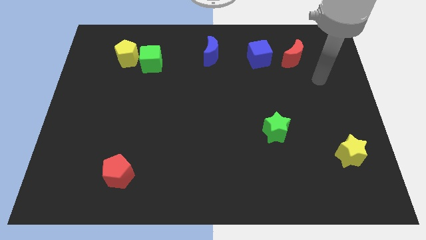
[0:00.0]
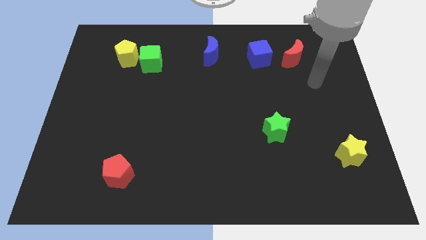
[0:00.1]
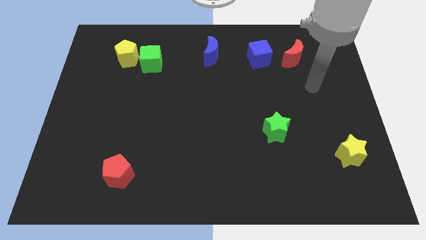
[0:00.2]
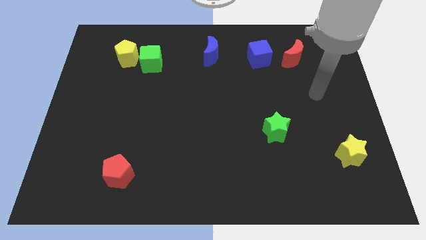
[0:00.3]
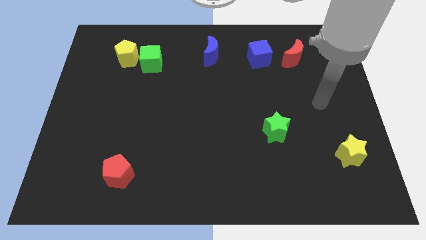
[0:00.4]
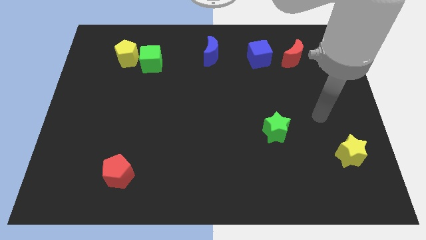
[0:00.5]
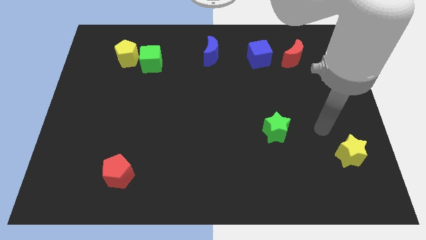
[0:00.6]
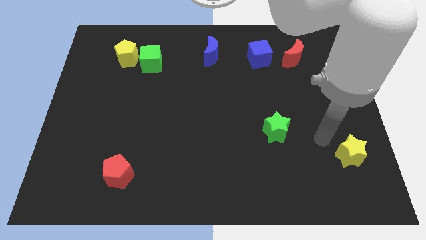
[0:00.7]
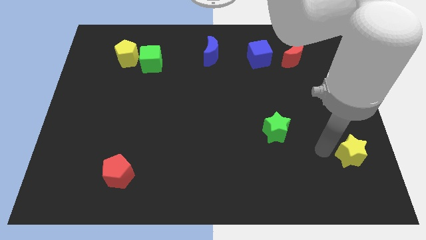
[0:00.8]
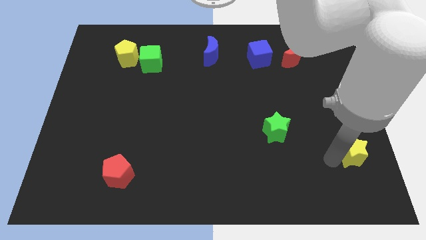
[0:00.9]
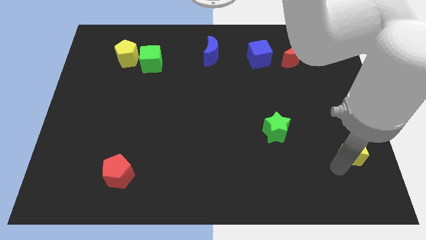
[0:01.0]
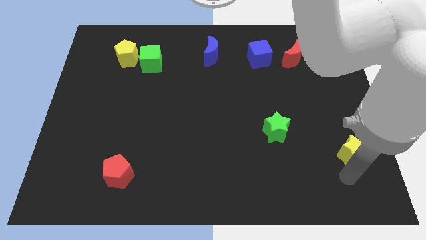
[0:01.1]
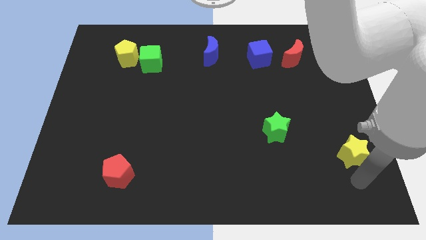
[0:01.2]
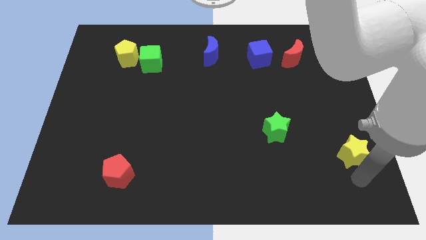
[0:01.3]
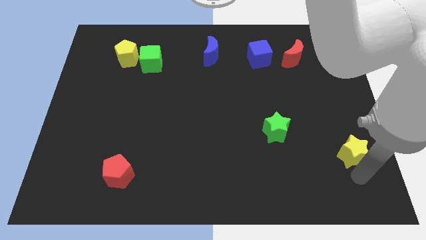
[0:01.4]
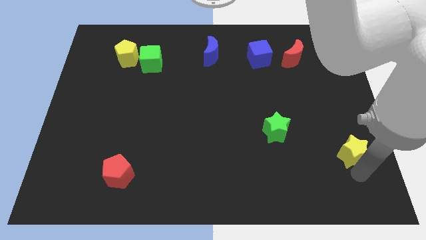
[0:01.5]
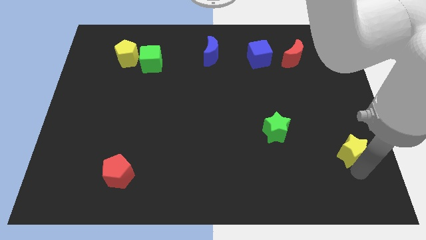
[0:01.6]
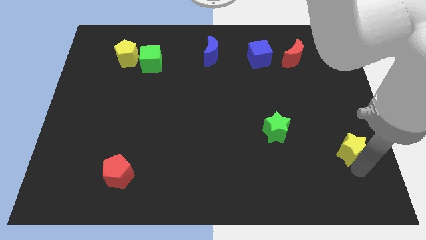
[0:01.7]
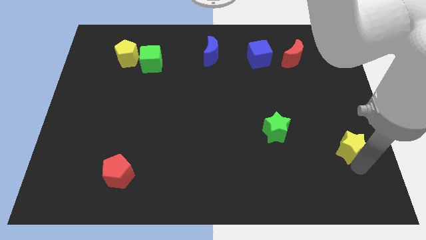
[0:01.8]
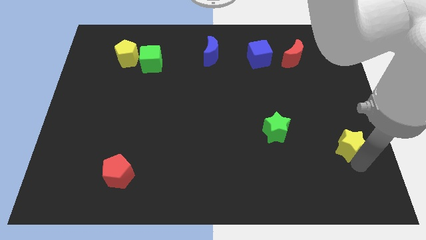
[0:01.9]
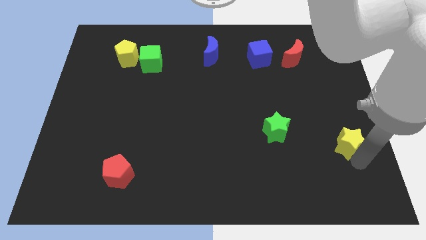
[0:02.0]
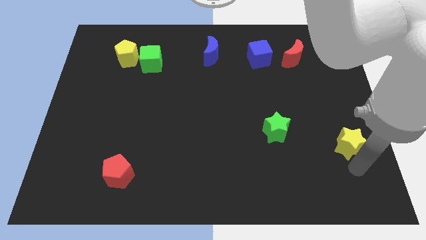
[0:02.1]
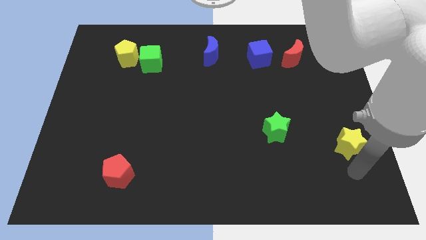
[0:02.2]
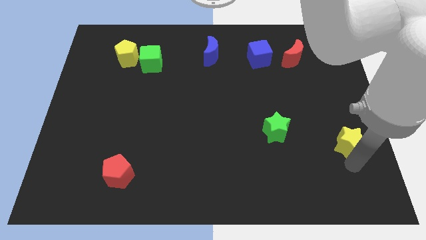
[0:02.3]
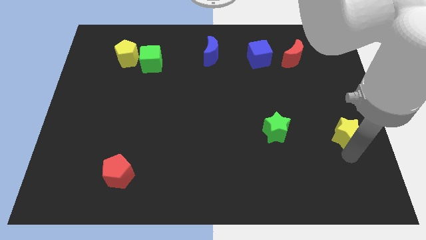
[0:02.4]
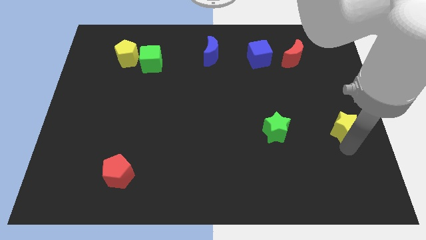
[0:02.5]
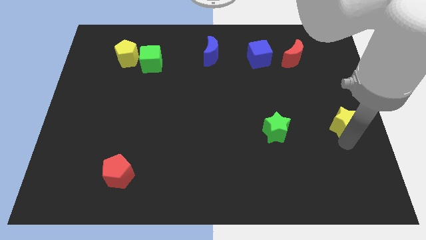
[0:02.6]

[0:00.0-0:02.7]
move the yellow star up slightly

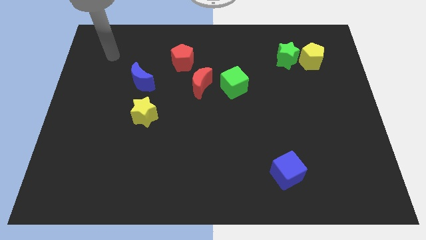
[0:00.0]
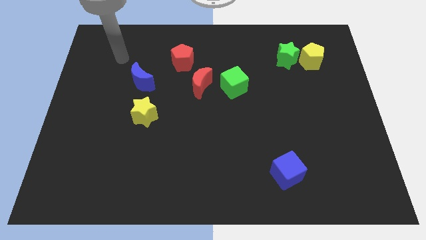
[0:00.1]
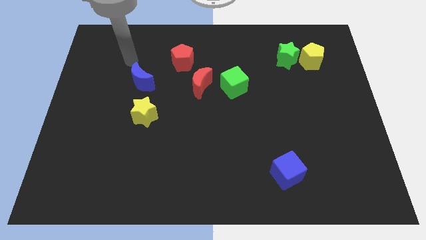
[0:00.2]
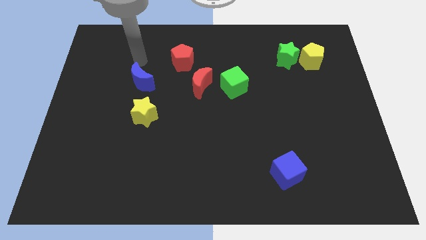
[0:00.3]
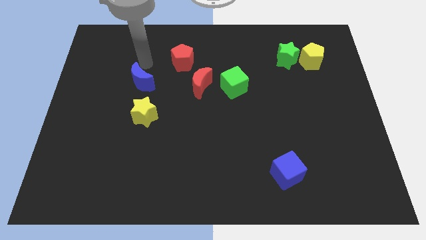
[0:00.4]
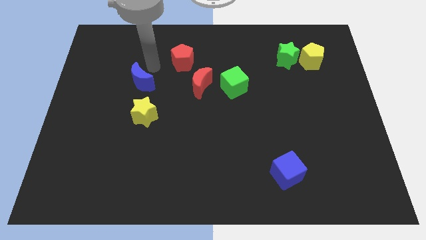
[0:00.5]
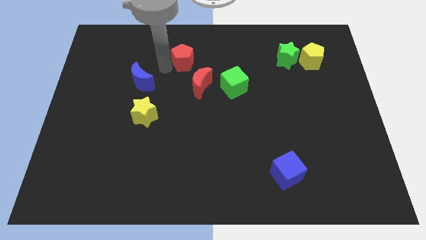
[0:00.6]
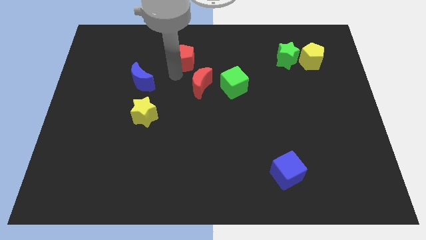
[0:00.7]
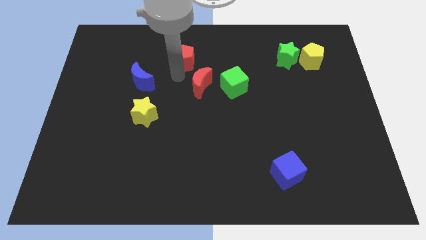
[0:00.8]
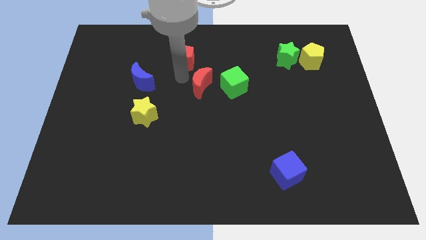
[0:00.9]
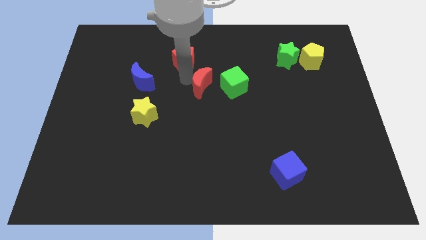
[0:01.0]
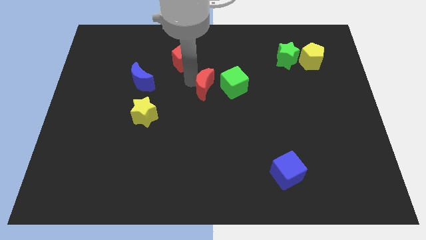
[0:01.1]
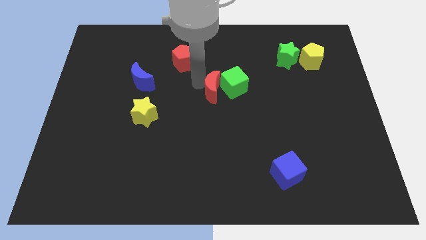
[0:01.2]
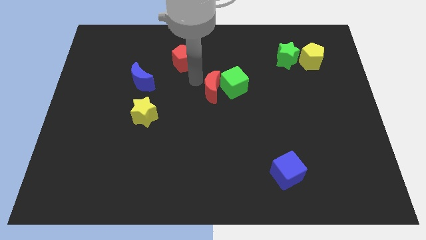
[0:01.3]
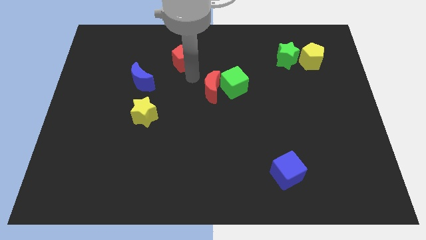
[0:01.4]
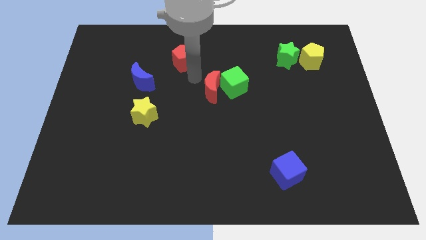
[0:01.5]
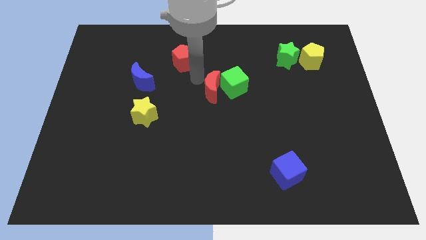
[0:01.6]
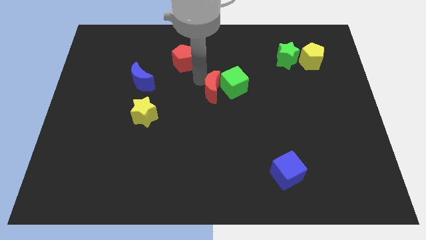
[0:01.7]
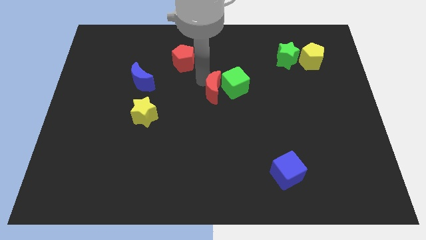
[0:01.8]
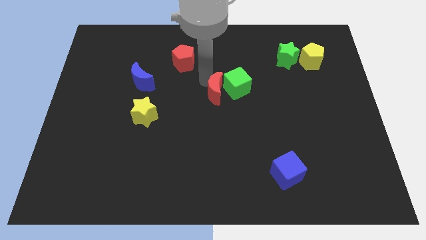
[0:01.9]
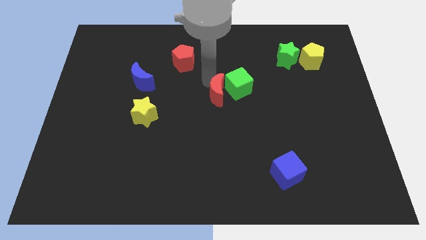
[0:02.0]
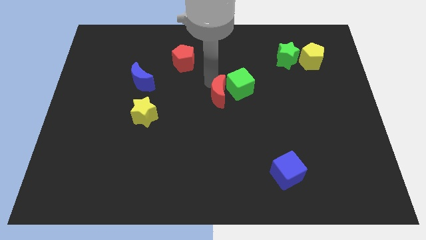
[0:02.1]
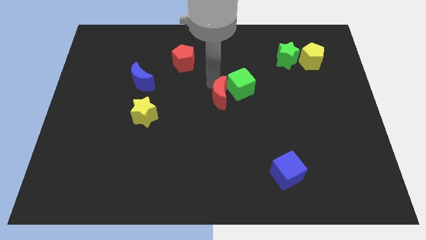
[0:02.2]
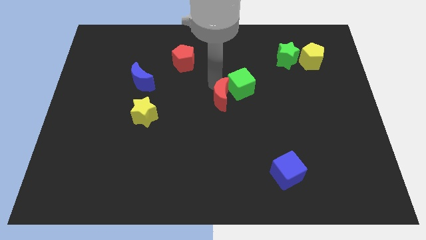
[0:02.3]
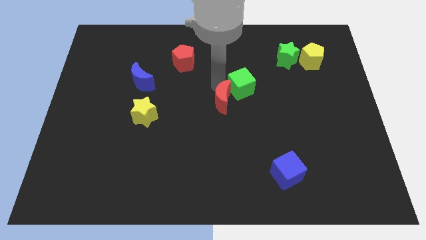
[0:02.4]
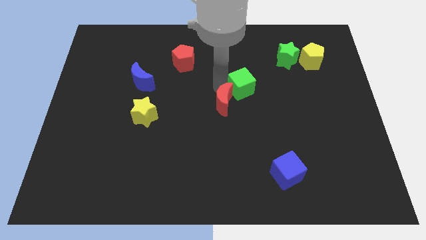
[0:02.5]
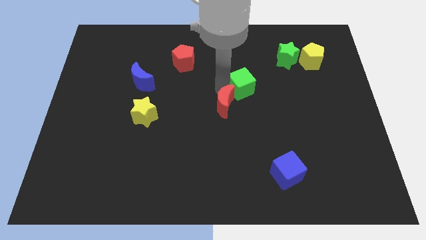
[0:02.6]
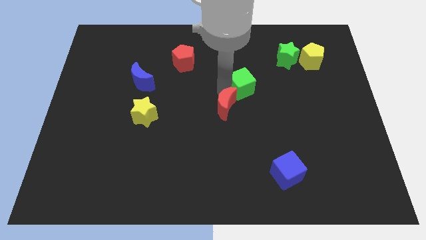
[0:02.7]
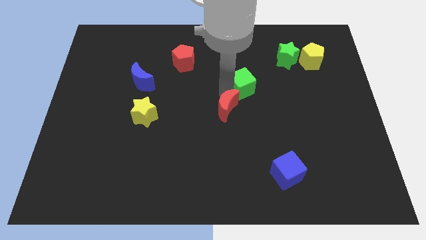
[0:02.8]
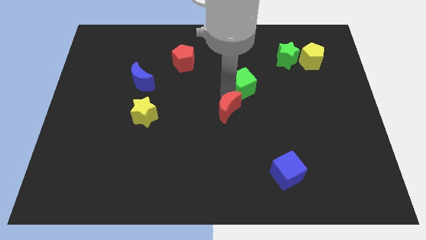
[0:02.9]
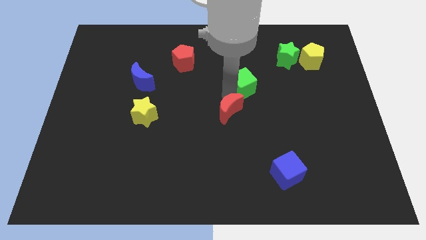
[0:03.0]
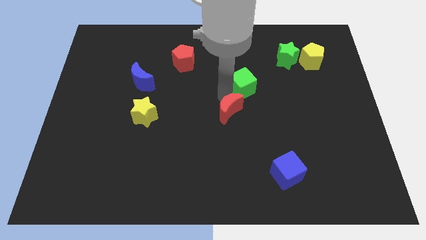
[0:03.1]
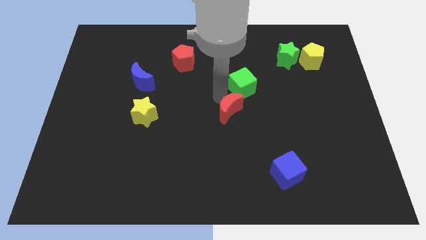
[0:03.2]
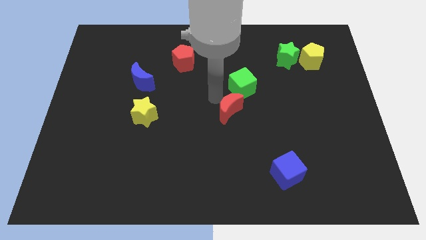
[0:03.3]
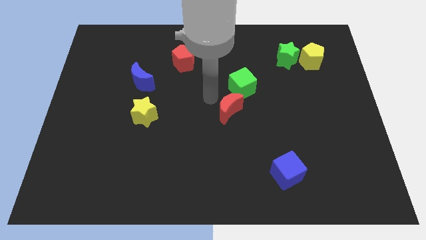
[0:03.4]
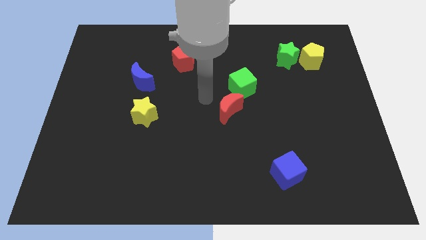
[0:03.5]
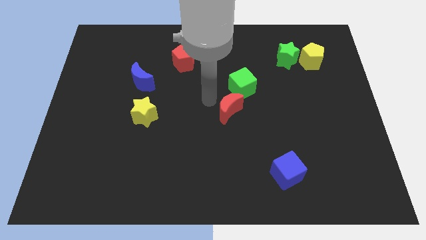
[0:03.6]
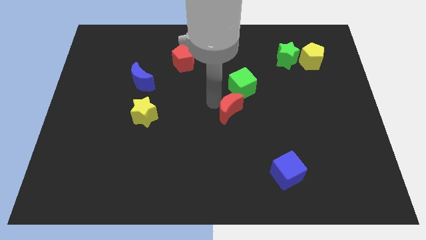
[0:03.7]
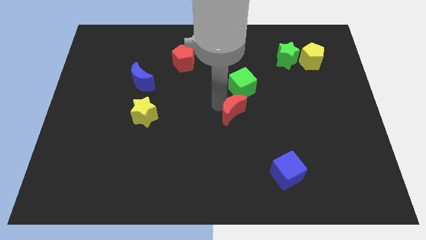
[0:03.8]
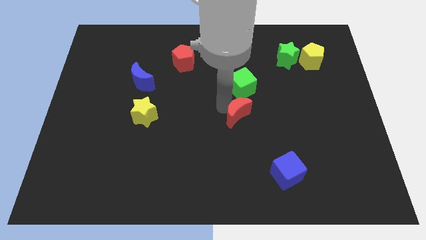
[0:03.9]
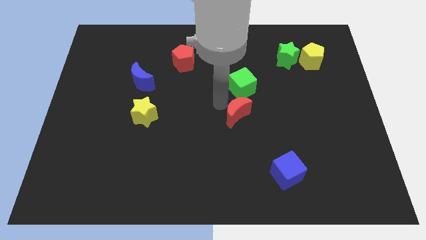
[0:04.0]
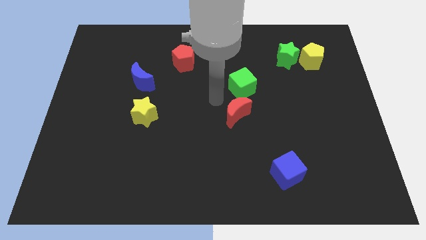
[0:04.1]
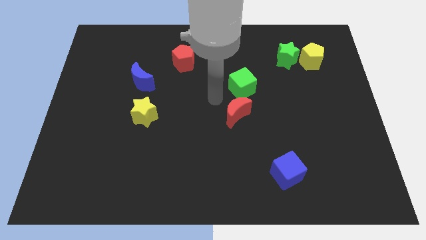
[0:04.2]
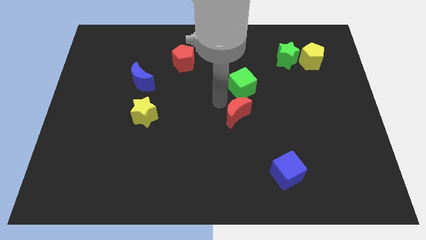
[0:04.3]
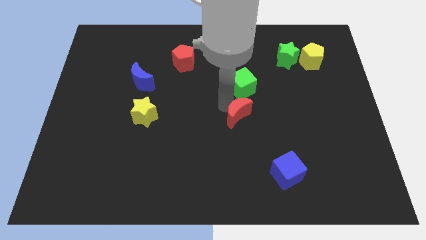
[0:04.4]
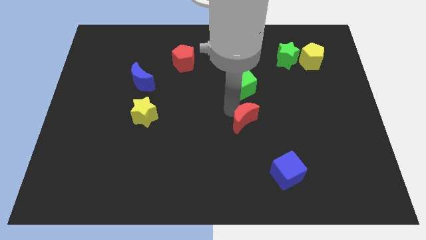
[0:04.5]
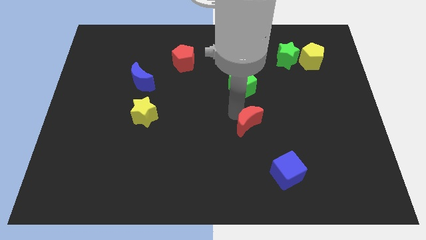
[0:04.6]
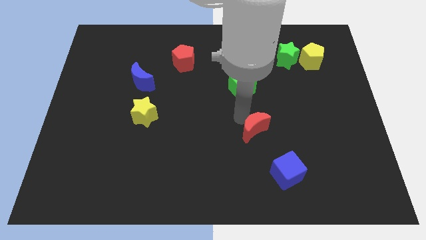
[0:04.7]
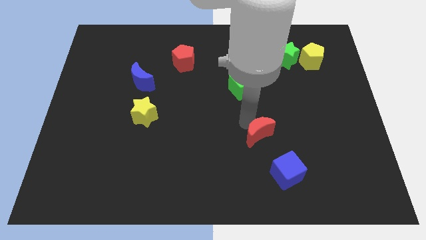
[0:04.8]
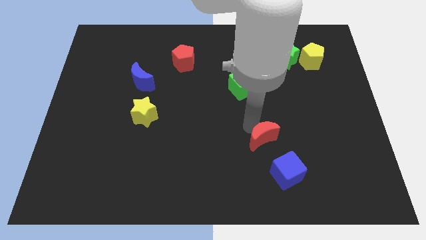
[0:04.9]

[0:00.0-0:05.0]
slide the red moon downwards and to the right diagonally
